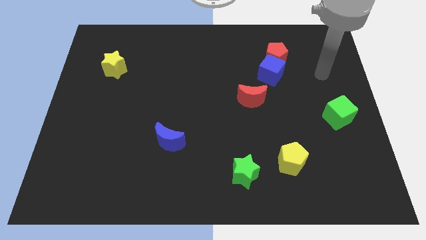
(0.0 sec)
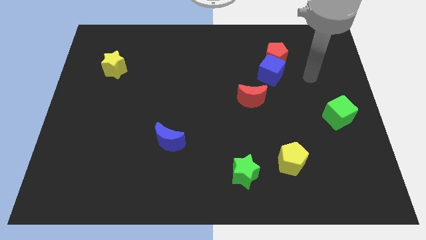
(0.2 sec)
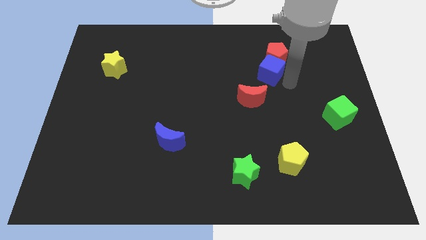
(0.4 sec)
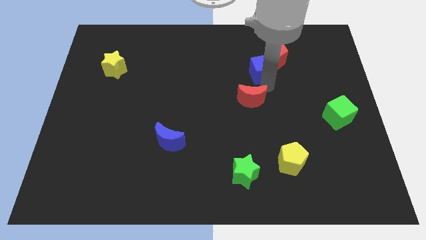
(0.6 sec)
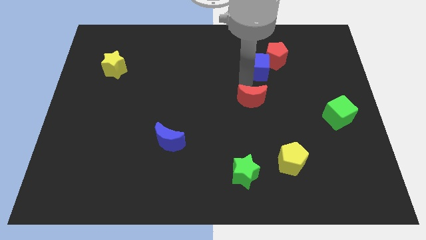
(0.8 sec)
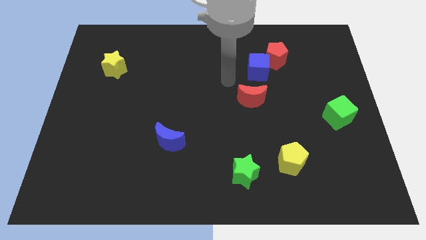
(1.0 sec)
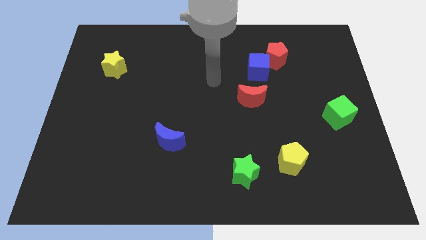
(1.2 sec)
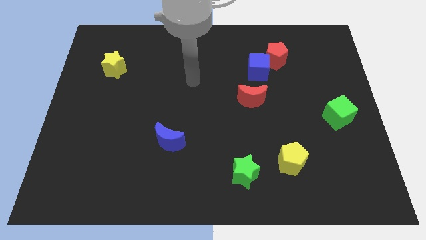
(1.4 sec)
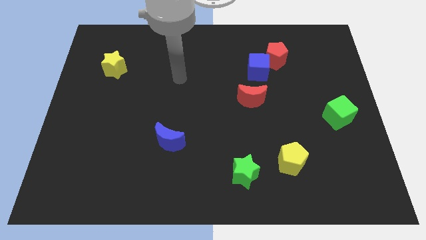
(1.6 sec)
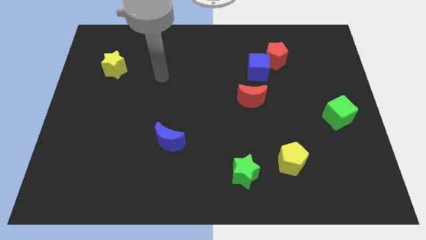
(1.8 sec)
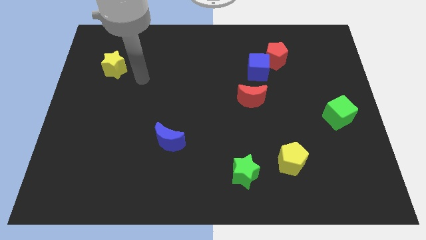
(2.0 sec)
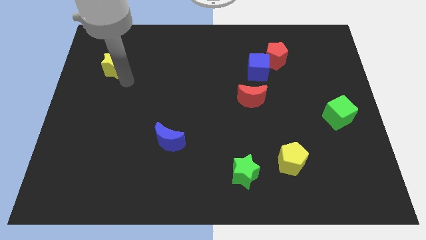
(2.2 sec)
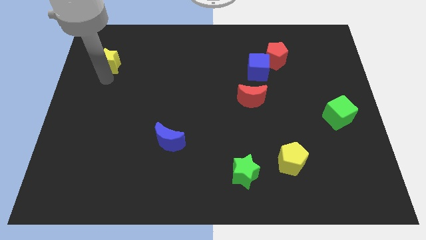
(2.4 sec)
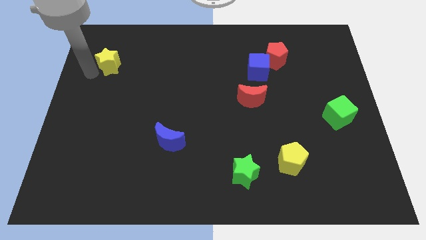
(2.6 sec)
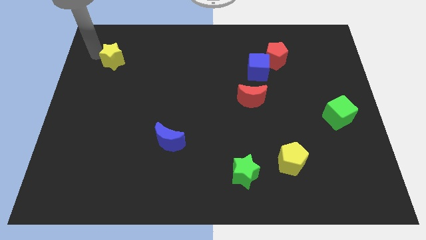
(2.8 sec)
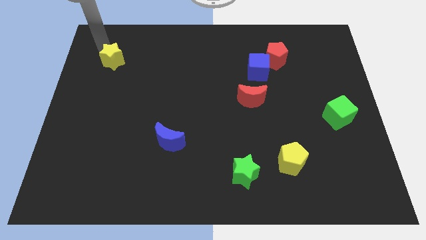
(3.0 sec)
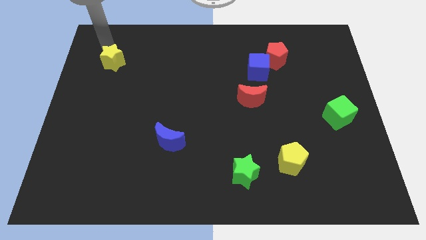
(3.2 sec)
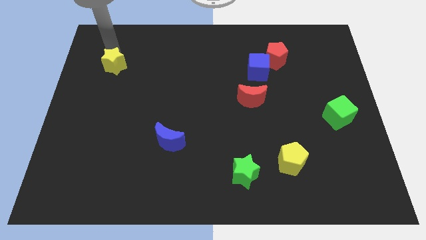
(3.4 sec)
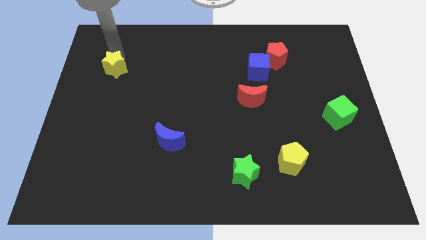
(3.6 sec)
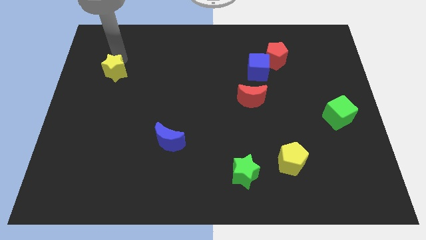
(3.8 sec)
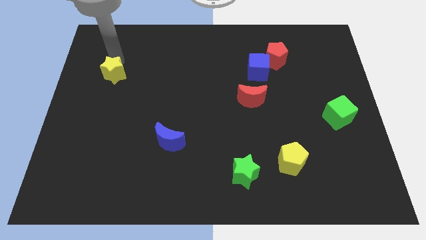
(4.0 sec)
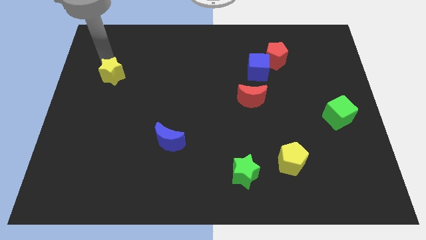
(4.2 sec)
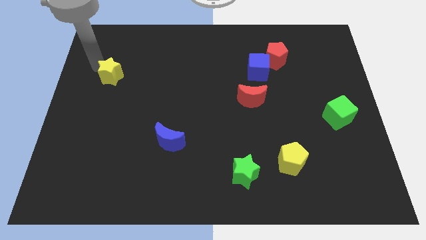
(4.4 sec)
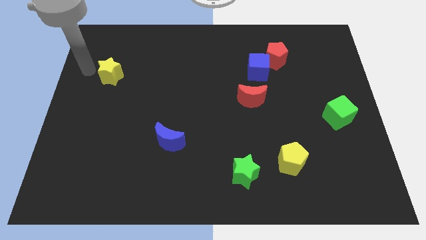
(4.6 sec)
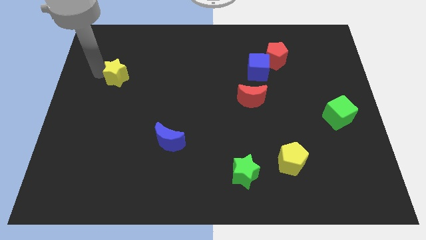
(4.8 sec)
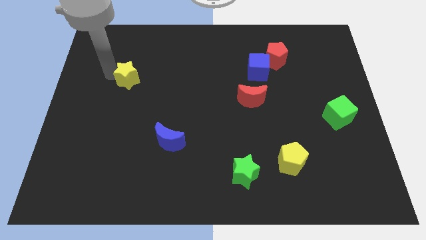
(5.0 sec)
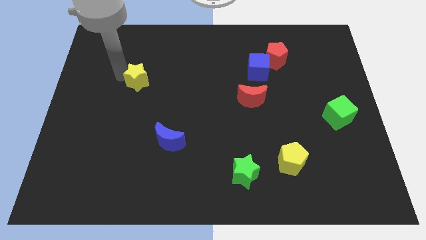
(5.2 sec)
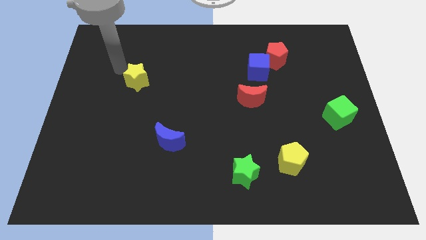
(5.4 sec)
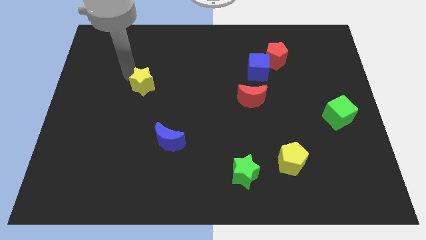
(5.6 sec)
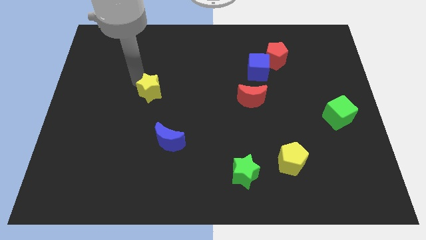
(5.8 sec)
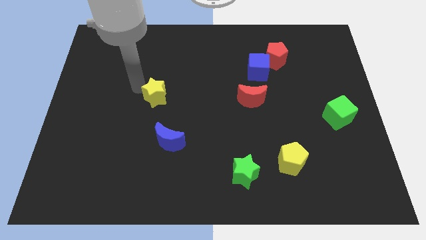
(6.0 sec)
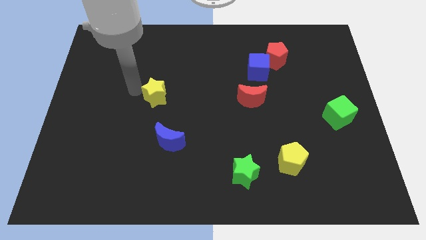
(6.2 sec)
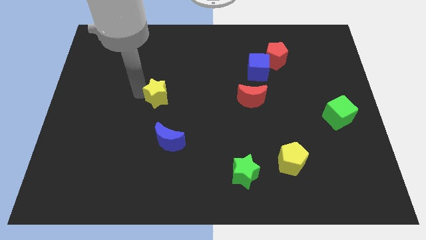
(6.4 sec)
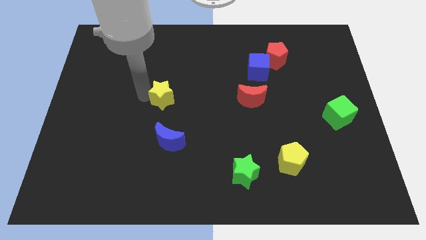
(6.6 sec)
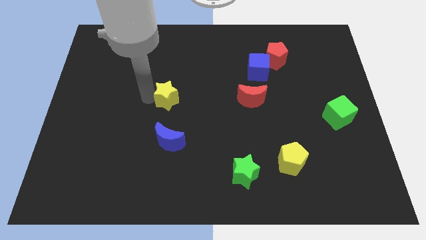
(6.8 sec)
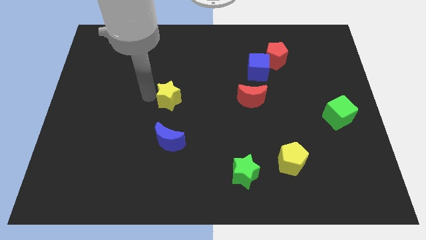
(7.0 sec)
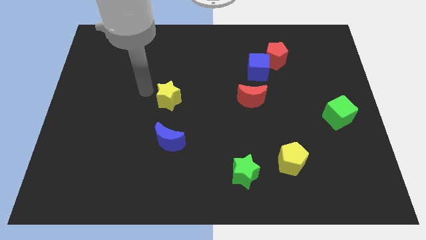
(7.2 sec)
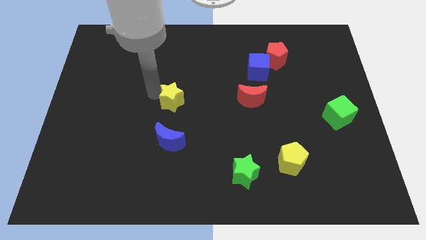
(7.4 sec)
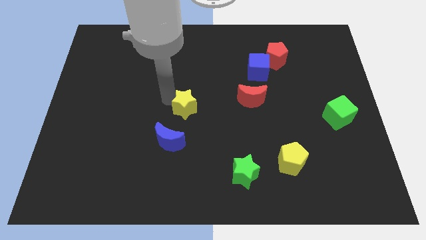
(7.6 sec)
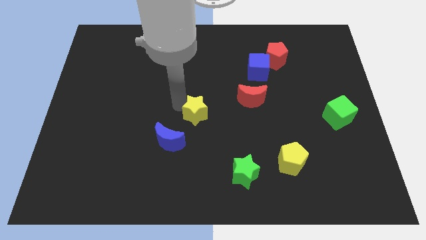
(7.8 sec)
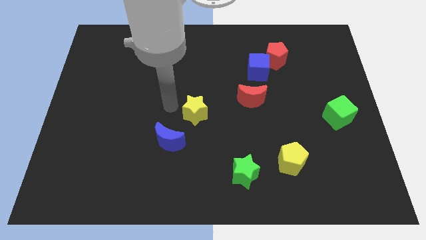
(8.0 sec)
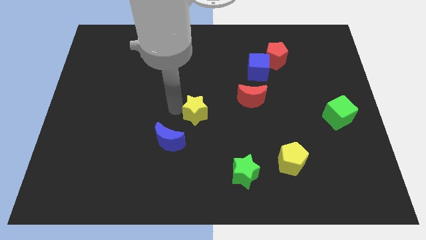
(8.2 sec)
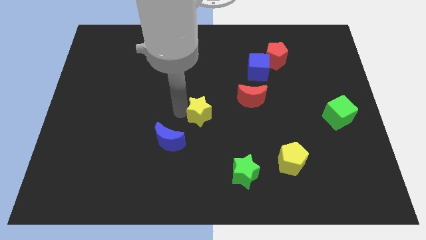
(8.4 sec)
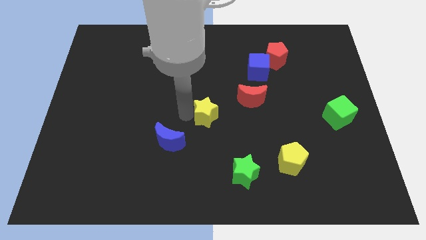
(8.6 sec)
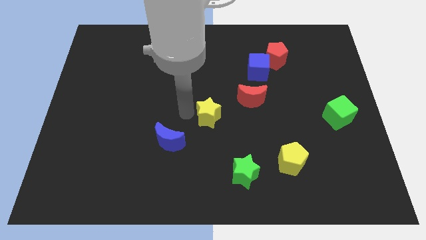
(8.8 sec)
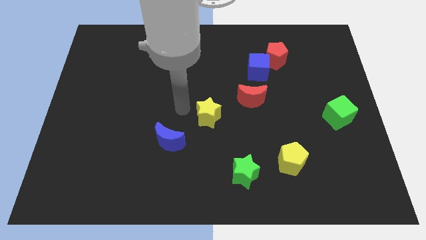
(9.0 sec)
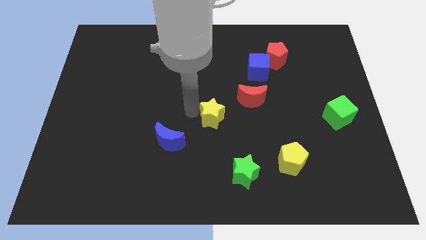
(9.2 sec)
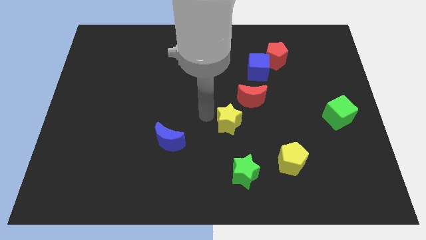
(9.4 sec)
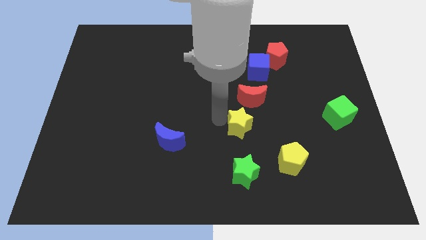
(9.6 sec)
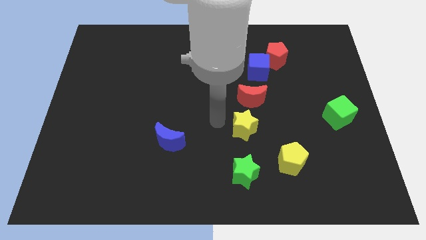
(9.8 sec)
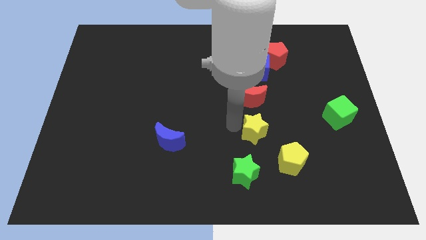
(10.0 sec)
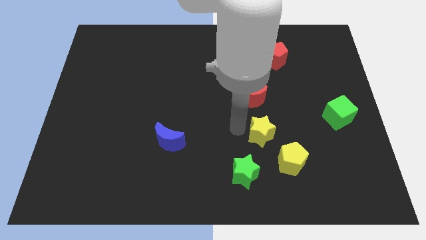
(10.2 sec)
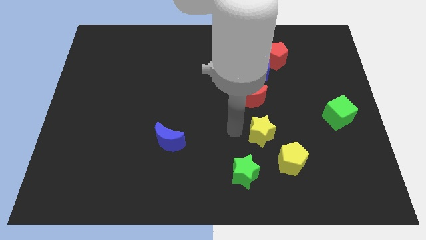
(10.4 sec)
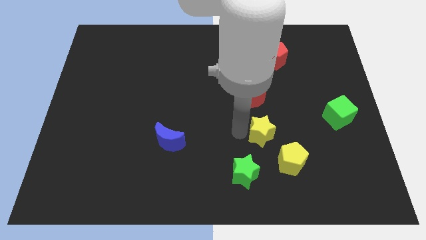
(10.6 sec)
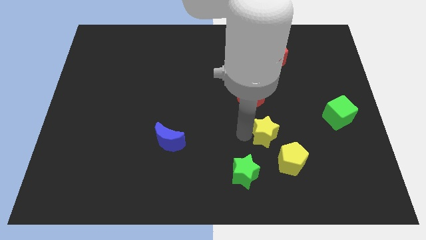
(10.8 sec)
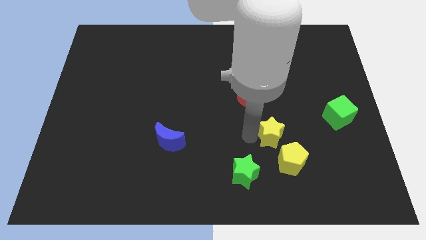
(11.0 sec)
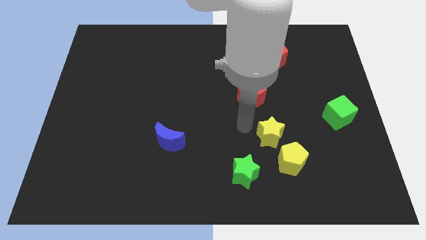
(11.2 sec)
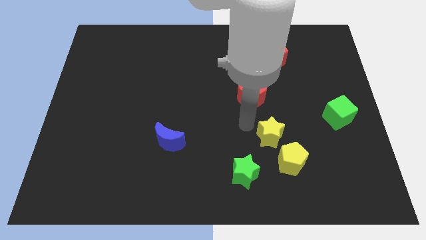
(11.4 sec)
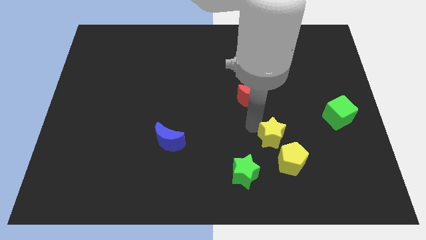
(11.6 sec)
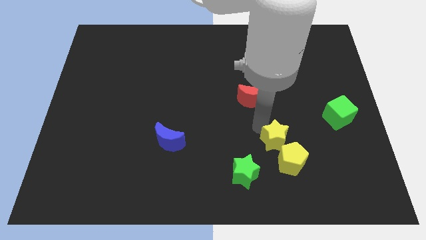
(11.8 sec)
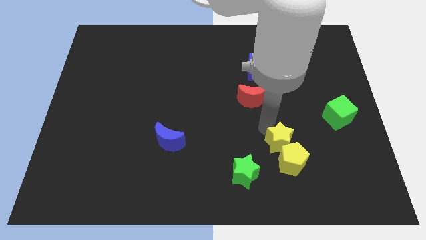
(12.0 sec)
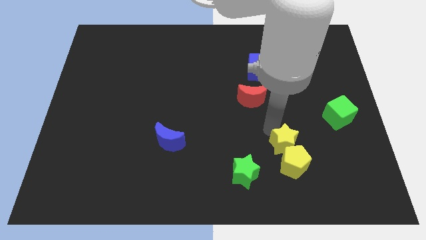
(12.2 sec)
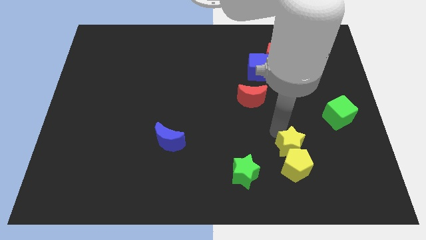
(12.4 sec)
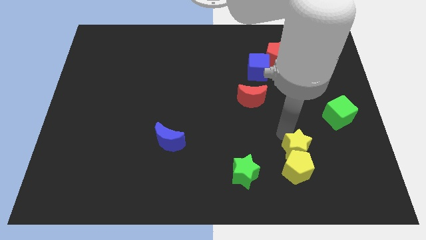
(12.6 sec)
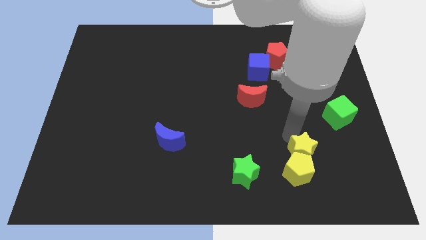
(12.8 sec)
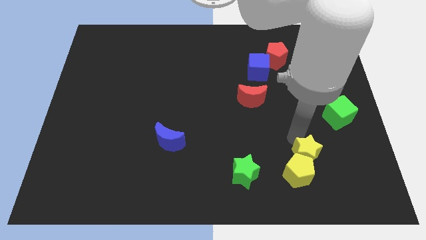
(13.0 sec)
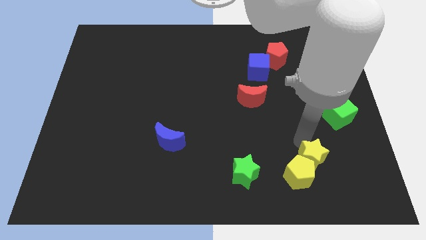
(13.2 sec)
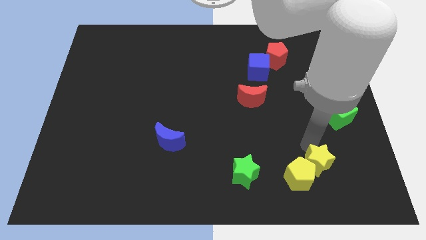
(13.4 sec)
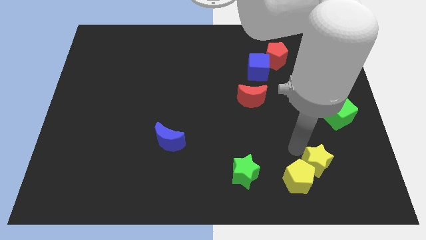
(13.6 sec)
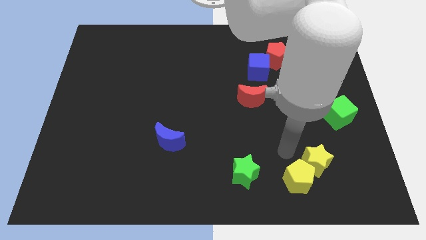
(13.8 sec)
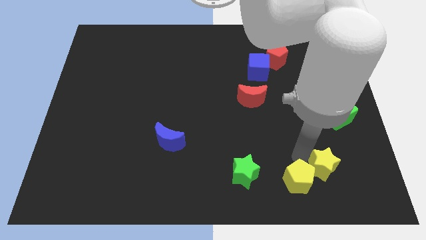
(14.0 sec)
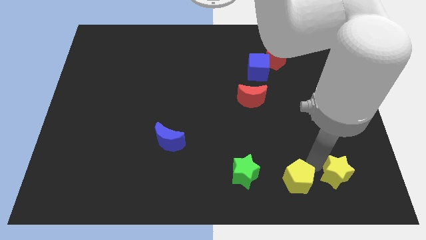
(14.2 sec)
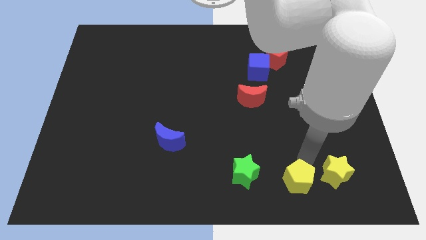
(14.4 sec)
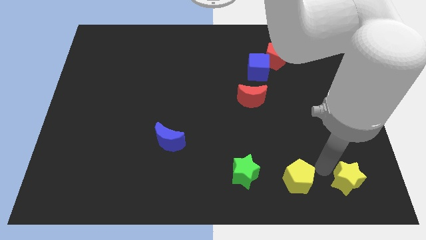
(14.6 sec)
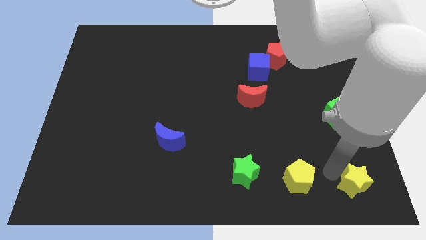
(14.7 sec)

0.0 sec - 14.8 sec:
move the yellow star to the bottom right of the board
